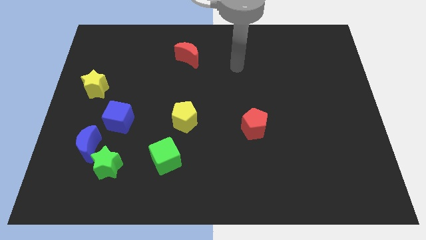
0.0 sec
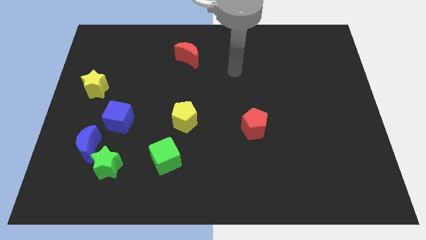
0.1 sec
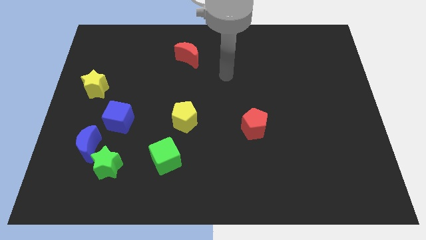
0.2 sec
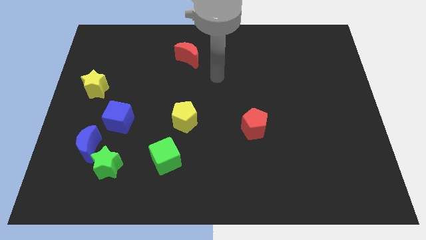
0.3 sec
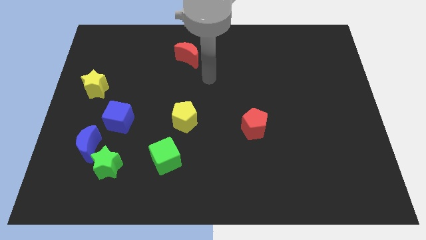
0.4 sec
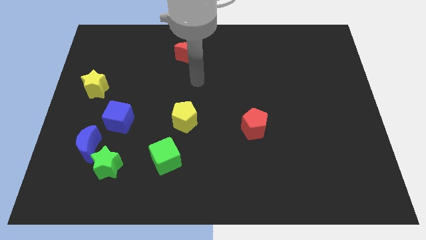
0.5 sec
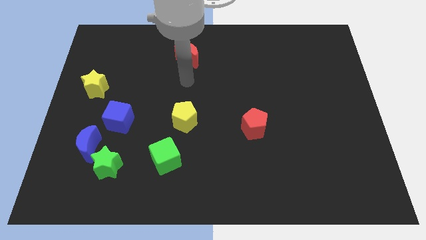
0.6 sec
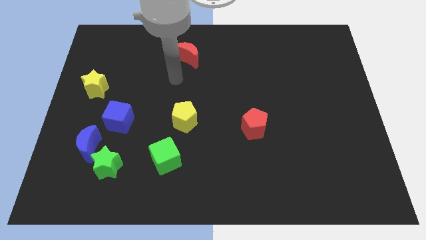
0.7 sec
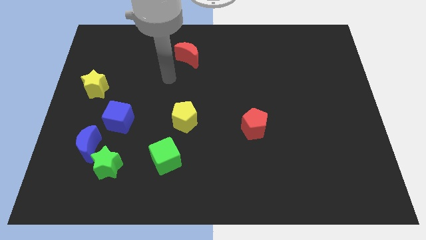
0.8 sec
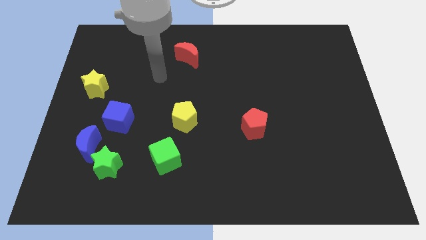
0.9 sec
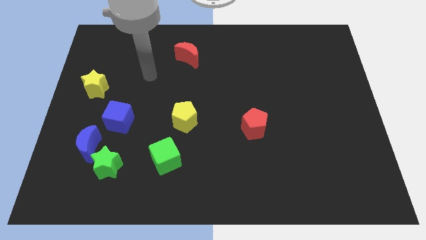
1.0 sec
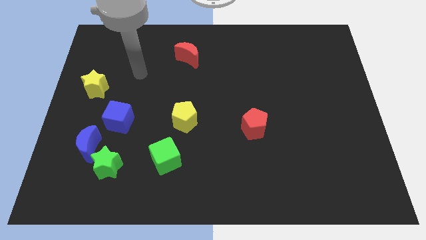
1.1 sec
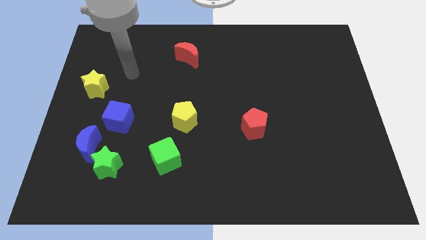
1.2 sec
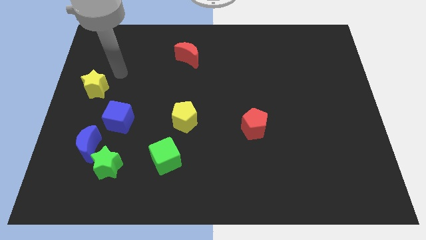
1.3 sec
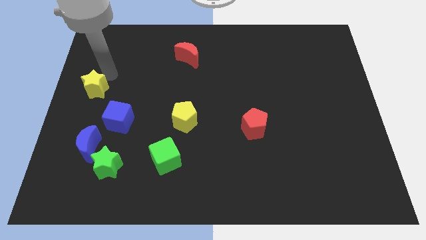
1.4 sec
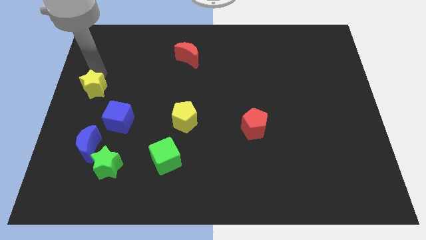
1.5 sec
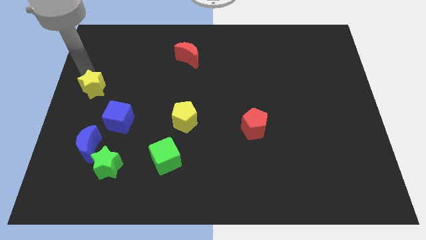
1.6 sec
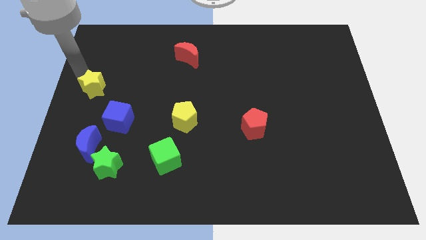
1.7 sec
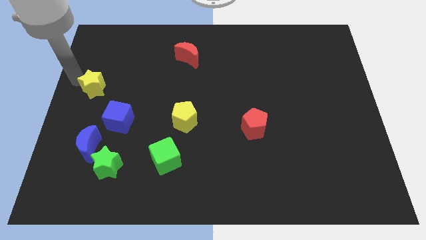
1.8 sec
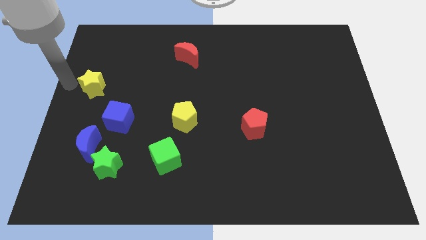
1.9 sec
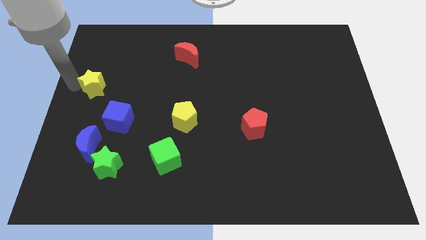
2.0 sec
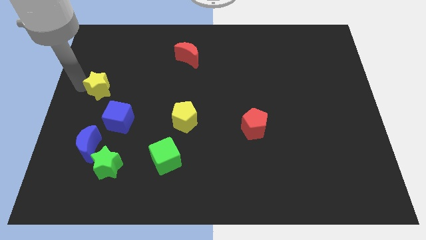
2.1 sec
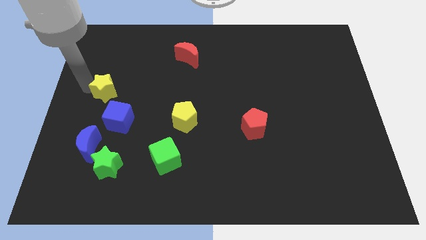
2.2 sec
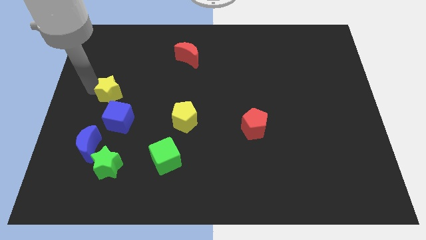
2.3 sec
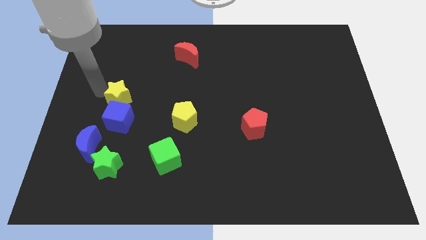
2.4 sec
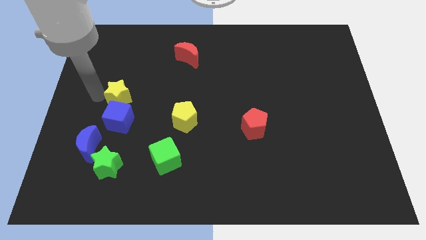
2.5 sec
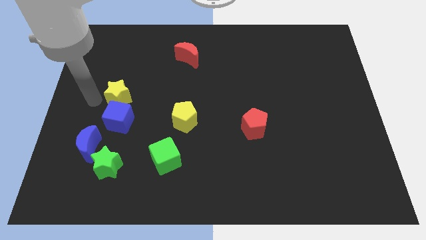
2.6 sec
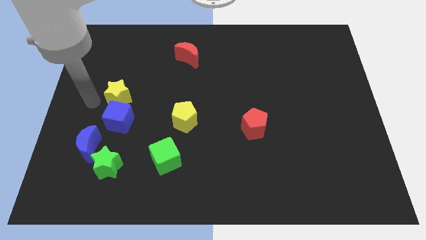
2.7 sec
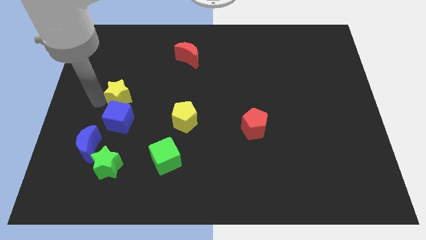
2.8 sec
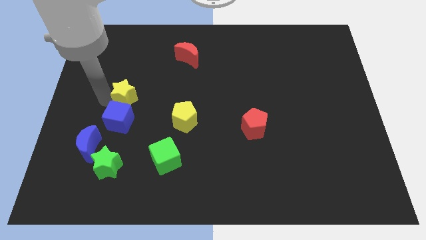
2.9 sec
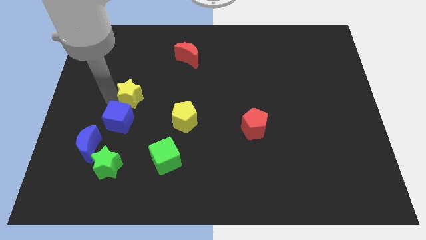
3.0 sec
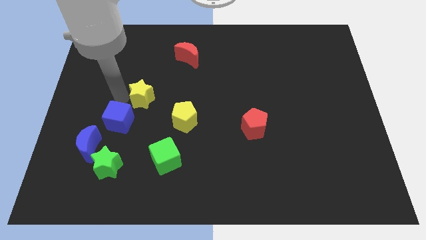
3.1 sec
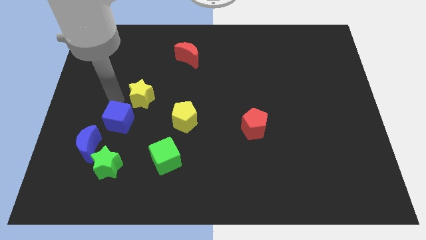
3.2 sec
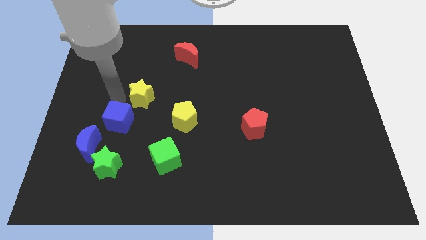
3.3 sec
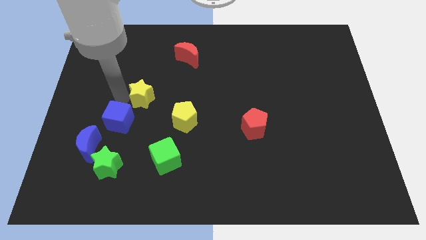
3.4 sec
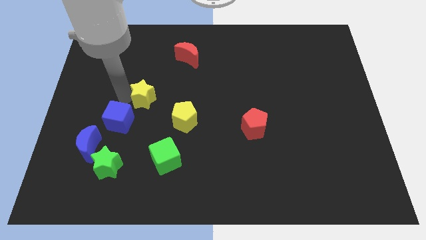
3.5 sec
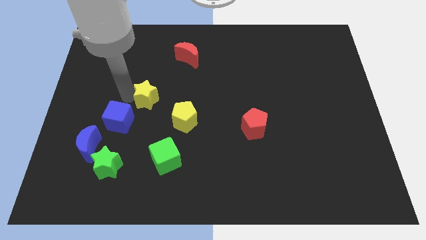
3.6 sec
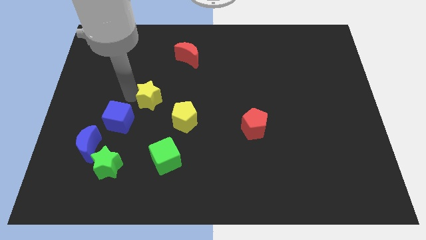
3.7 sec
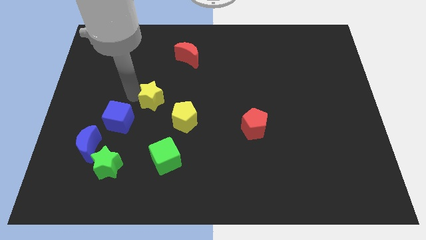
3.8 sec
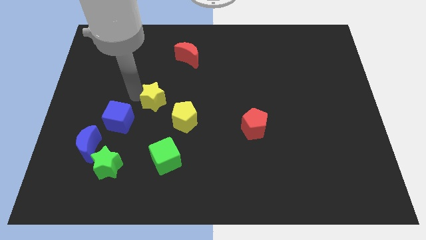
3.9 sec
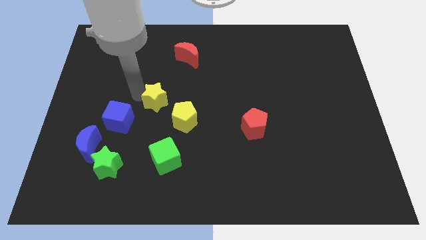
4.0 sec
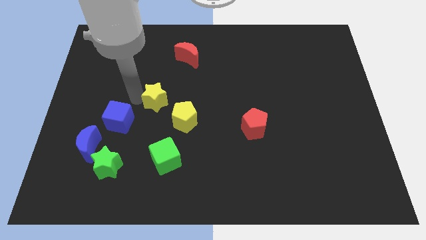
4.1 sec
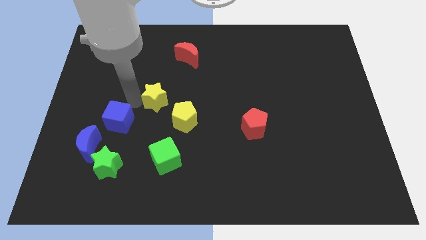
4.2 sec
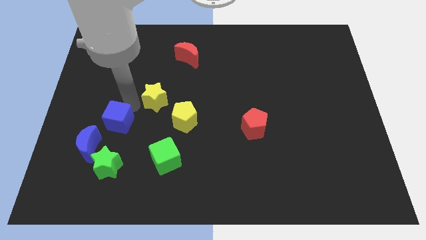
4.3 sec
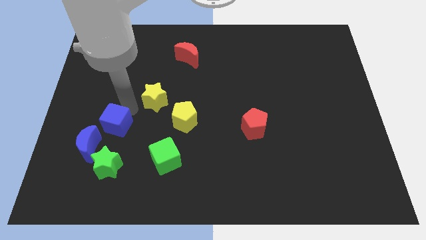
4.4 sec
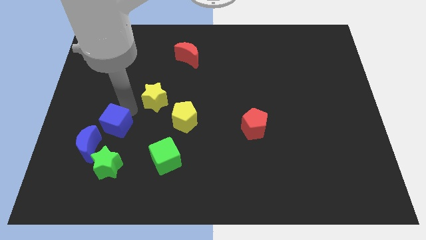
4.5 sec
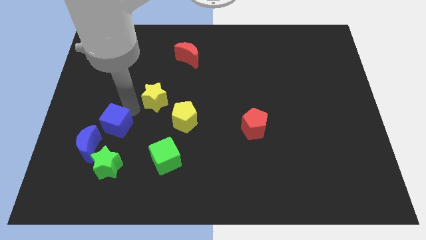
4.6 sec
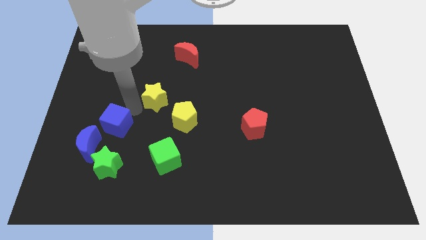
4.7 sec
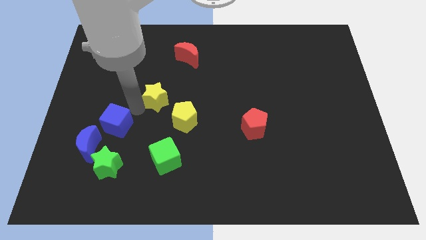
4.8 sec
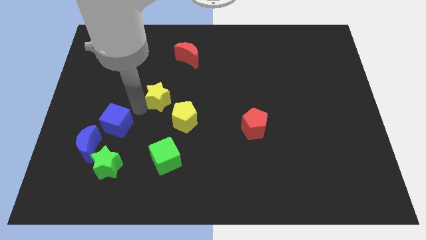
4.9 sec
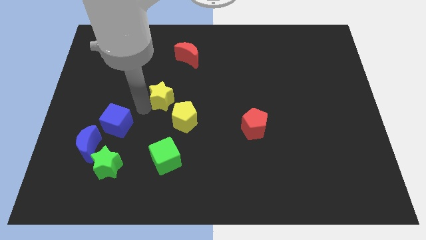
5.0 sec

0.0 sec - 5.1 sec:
push the yellow star to the middle

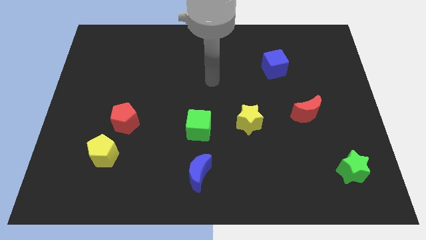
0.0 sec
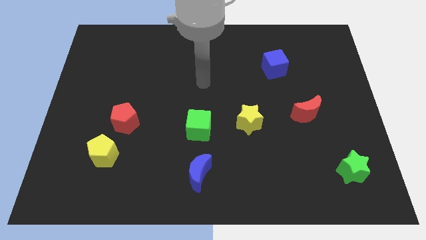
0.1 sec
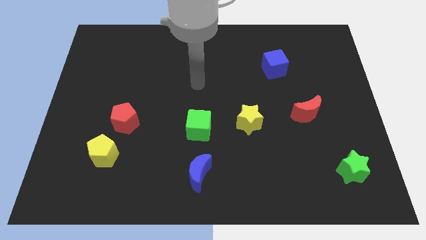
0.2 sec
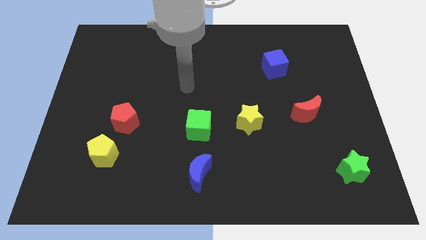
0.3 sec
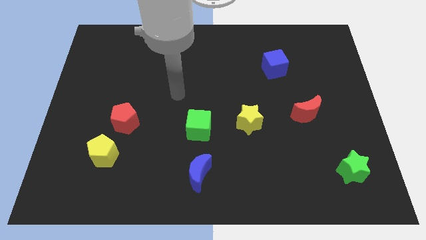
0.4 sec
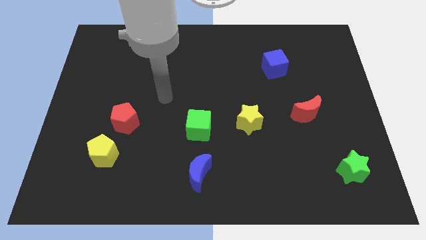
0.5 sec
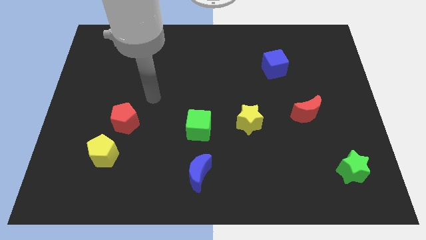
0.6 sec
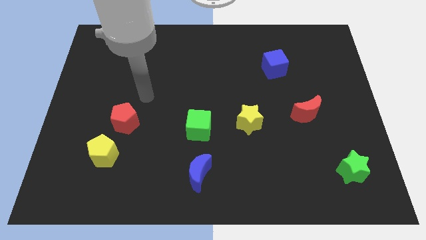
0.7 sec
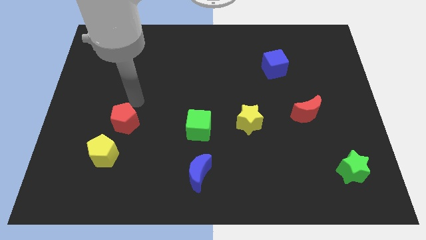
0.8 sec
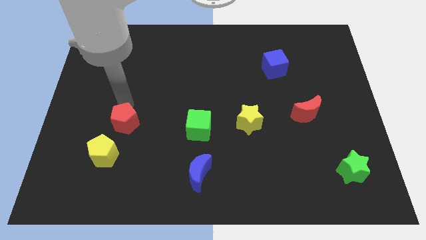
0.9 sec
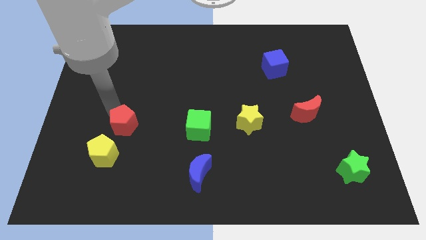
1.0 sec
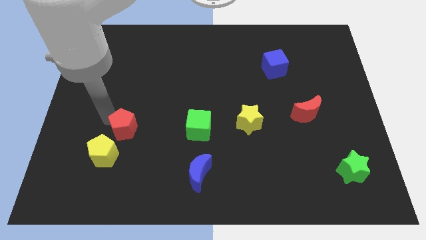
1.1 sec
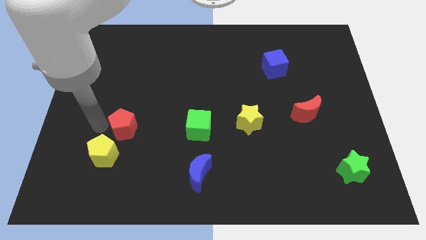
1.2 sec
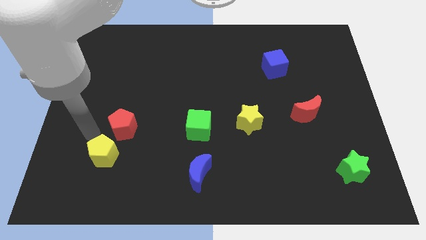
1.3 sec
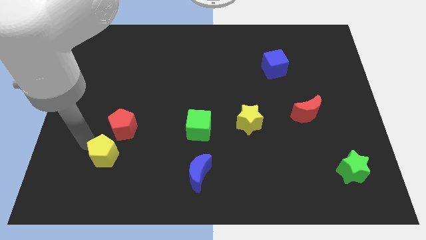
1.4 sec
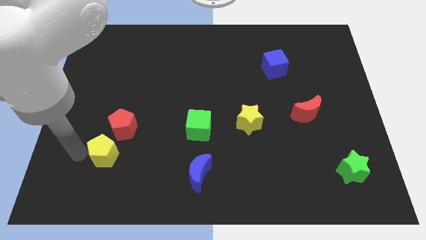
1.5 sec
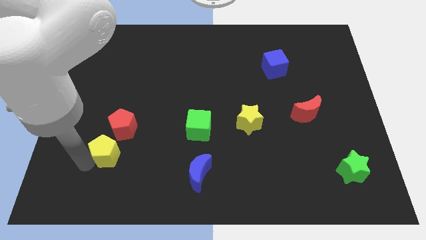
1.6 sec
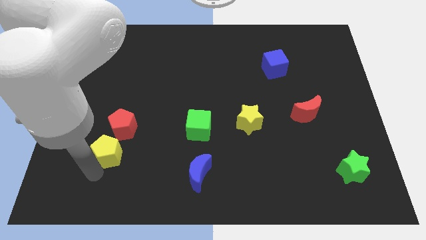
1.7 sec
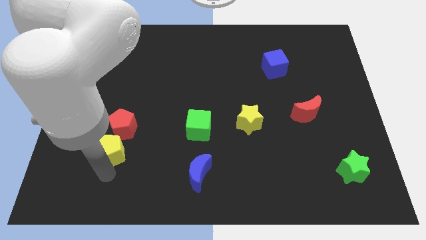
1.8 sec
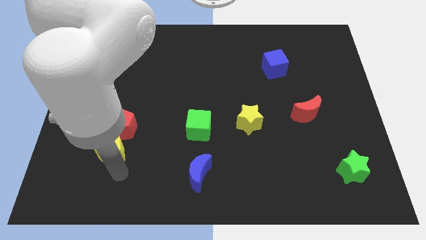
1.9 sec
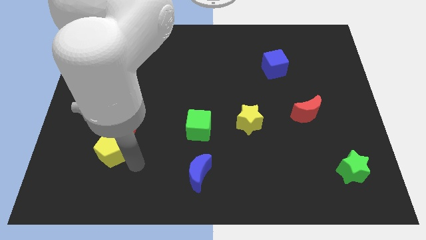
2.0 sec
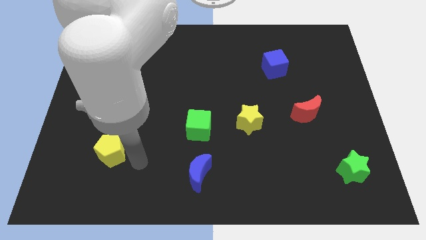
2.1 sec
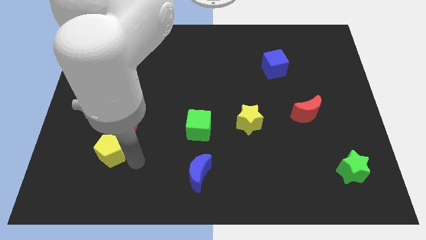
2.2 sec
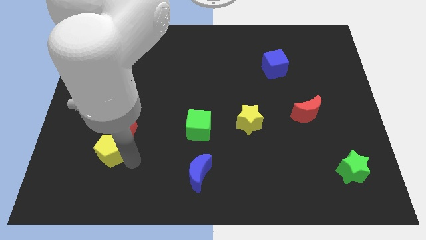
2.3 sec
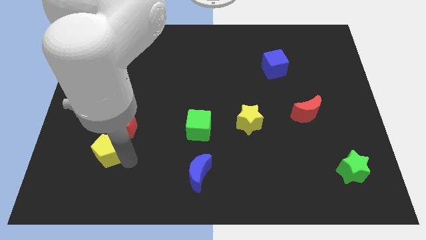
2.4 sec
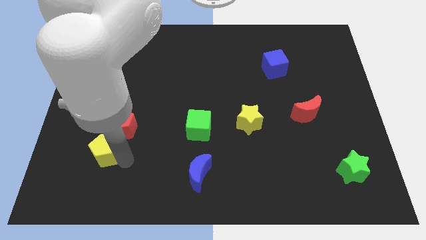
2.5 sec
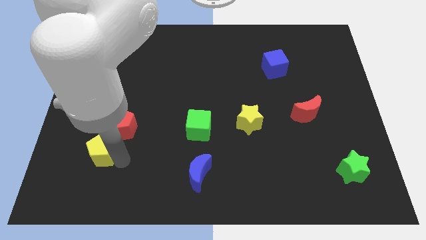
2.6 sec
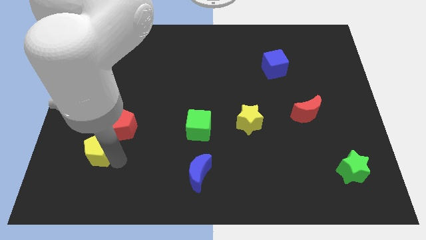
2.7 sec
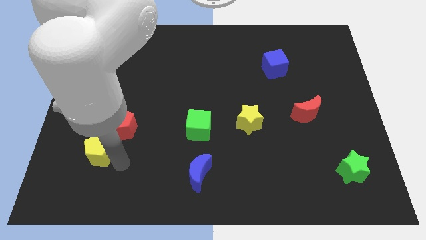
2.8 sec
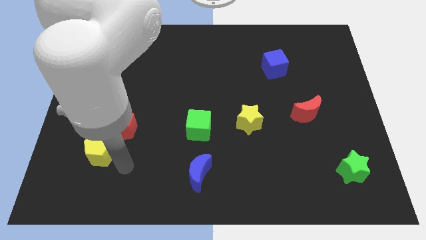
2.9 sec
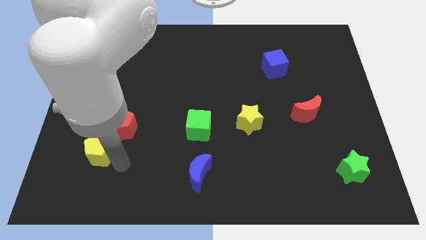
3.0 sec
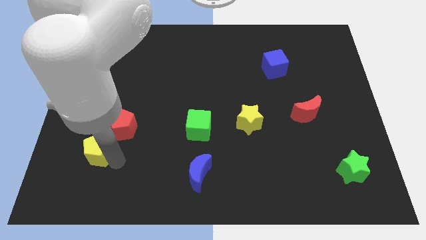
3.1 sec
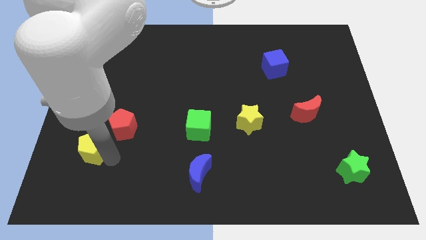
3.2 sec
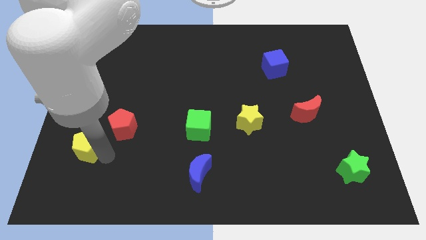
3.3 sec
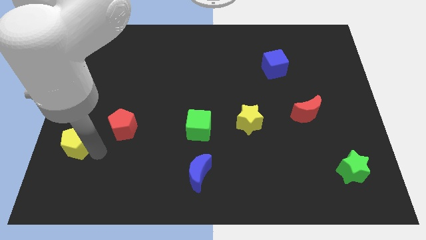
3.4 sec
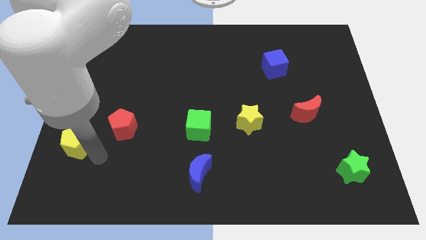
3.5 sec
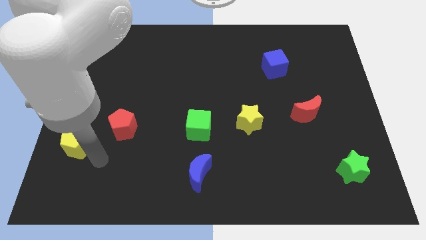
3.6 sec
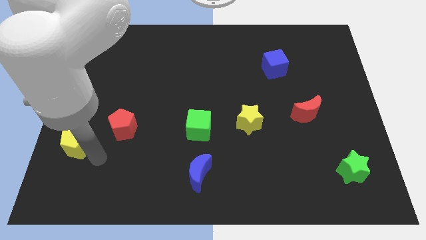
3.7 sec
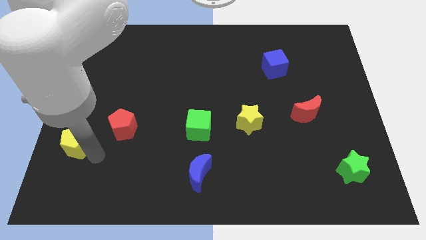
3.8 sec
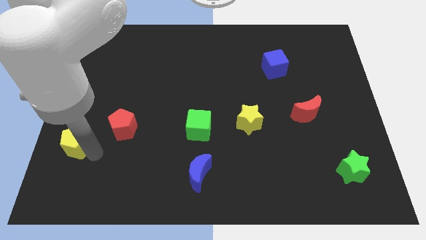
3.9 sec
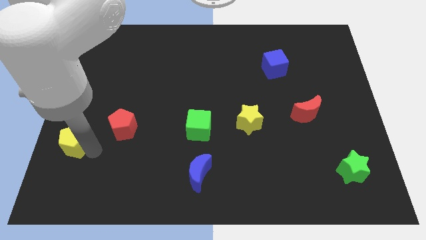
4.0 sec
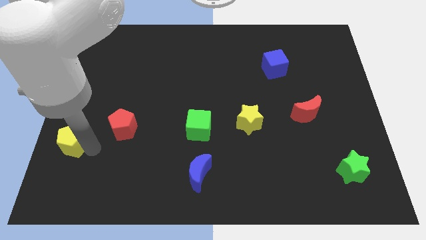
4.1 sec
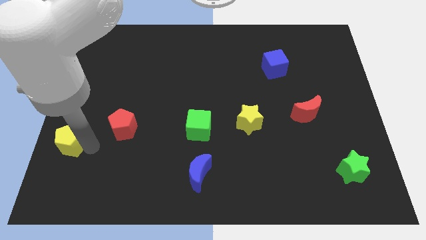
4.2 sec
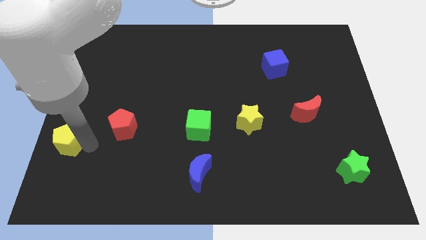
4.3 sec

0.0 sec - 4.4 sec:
slide the yellow pentagon to the center left
